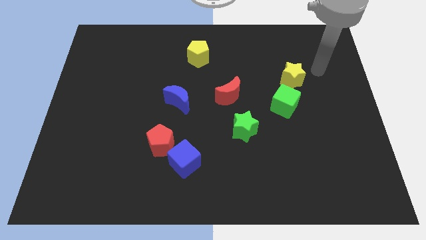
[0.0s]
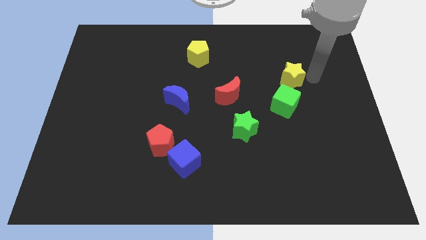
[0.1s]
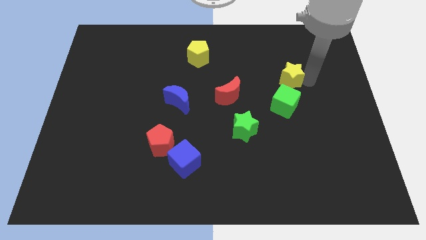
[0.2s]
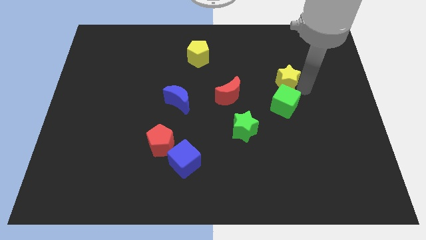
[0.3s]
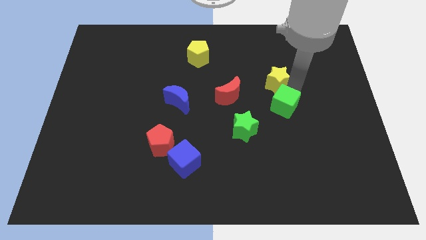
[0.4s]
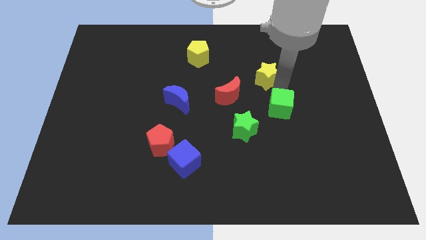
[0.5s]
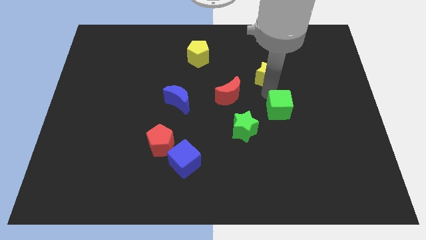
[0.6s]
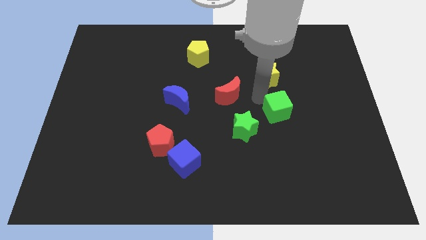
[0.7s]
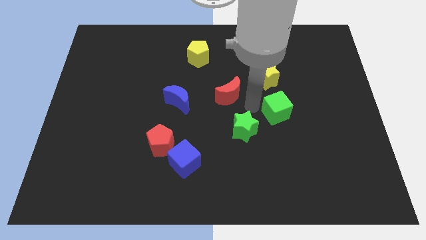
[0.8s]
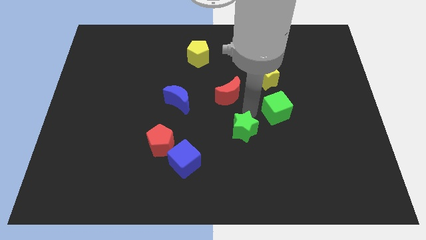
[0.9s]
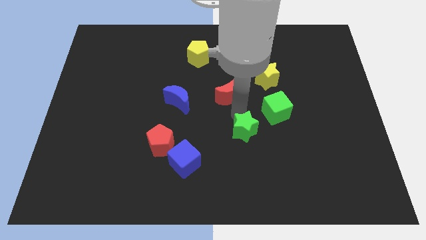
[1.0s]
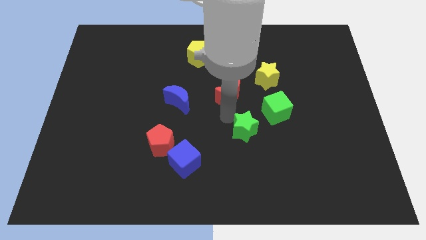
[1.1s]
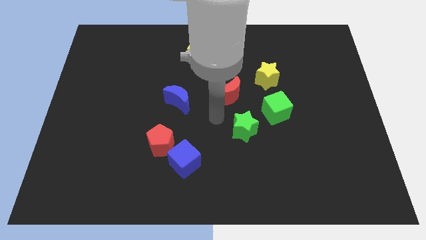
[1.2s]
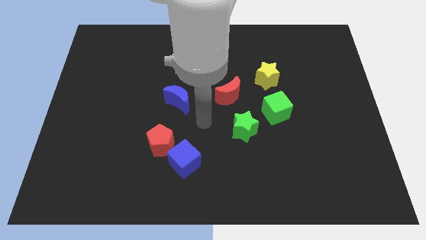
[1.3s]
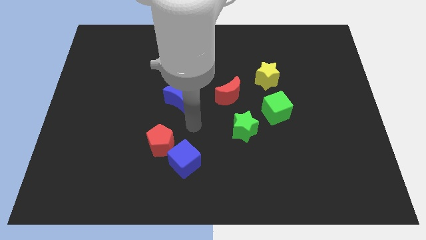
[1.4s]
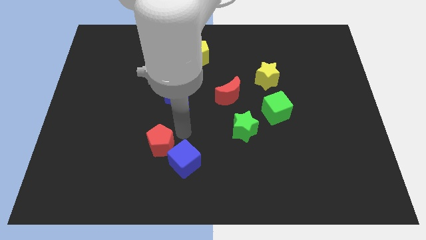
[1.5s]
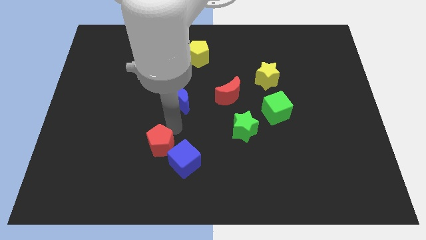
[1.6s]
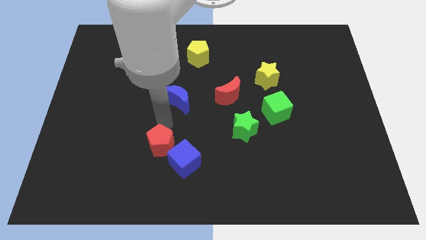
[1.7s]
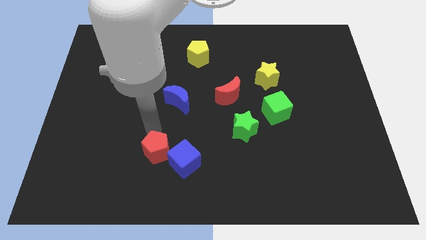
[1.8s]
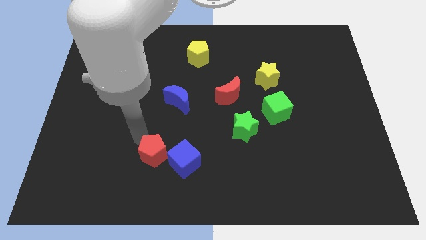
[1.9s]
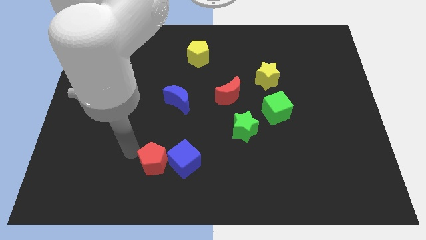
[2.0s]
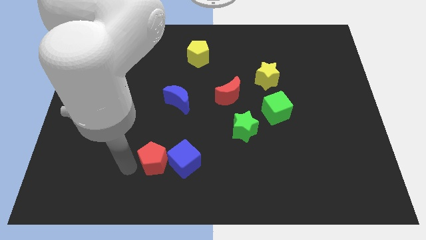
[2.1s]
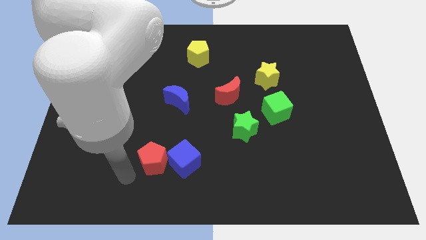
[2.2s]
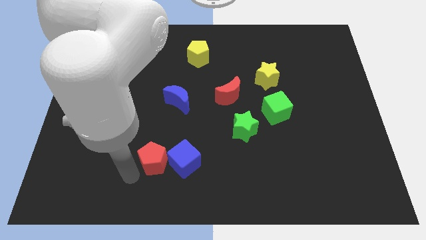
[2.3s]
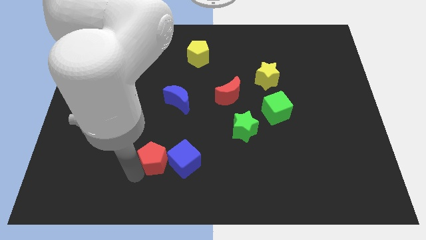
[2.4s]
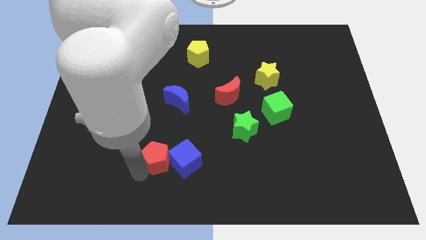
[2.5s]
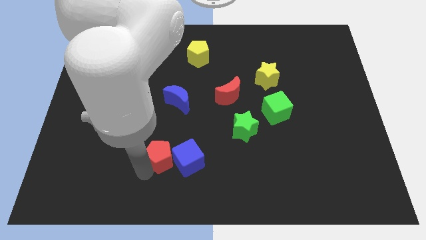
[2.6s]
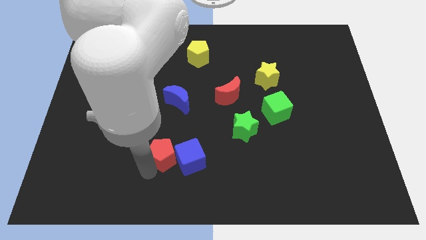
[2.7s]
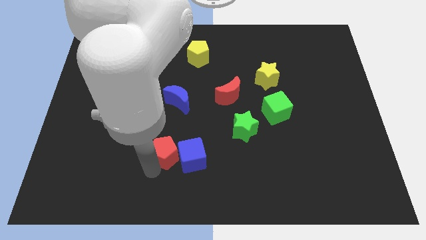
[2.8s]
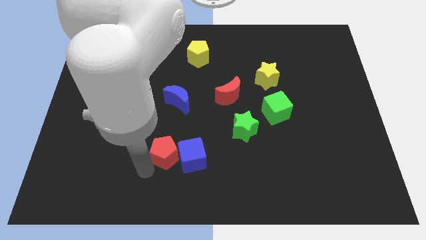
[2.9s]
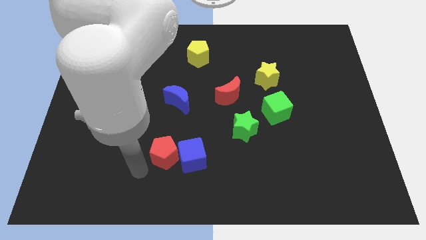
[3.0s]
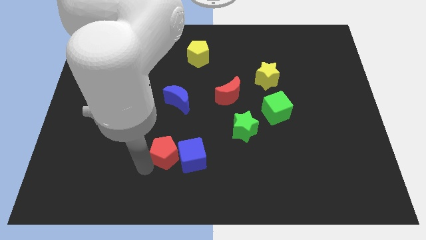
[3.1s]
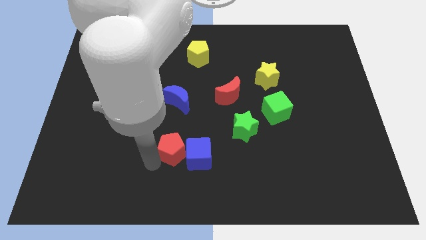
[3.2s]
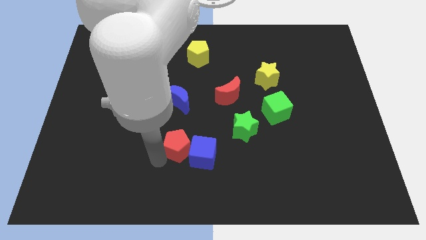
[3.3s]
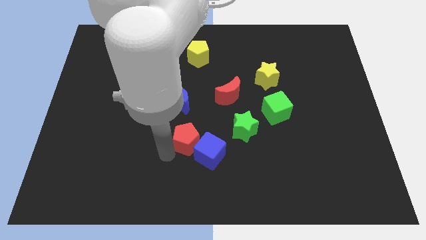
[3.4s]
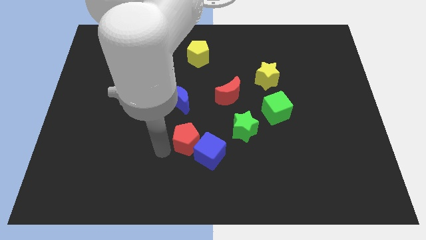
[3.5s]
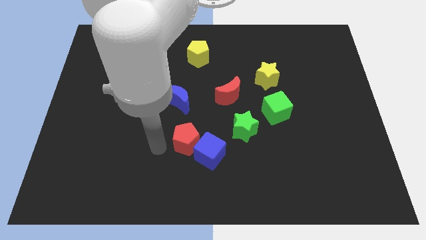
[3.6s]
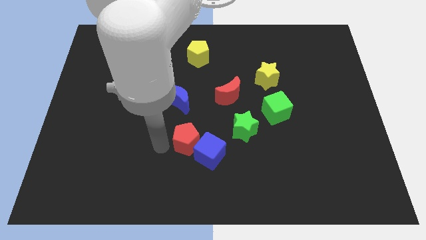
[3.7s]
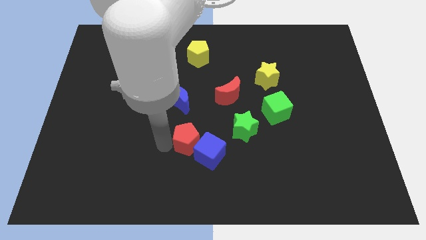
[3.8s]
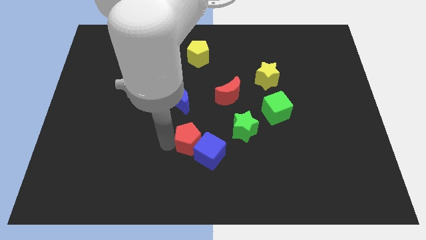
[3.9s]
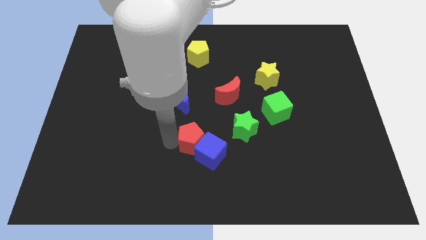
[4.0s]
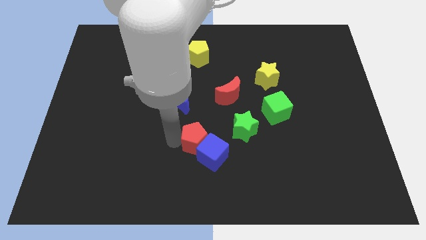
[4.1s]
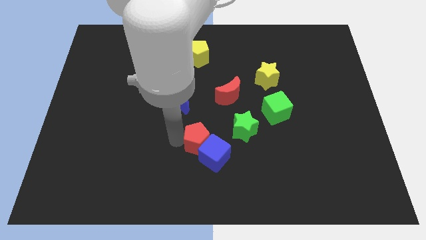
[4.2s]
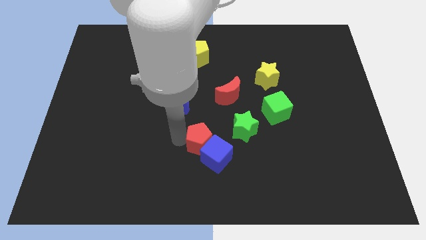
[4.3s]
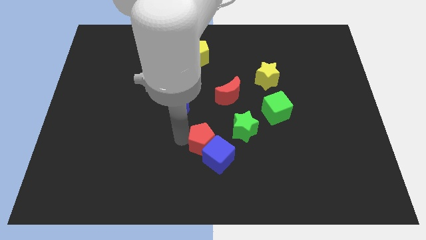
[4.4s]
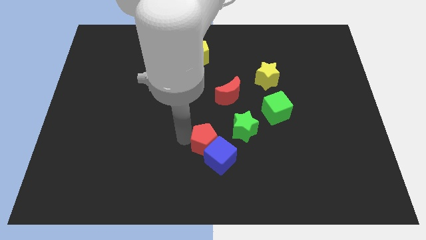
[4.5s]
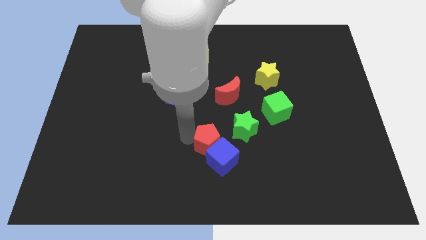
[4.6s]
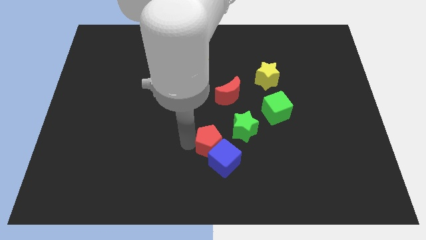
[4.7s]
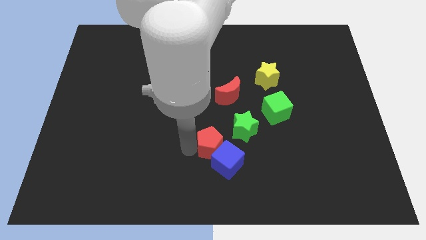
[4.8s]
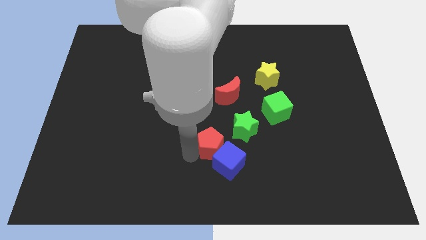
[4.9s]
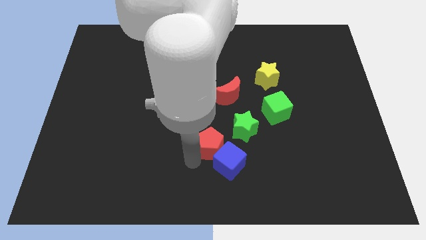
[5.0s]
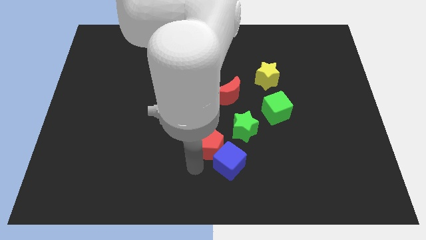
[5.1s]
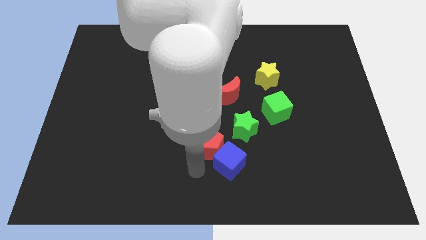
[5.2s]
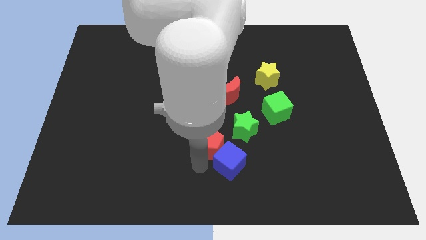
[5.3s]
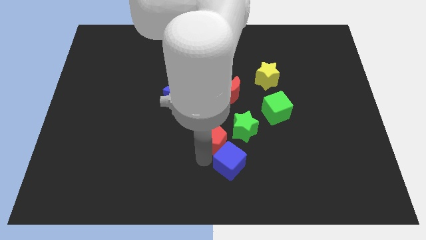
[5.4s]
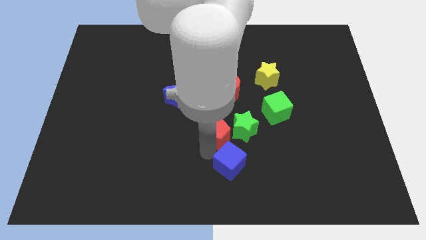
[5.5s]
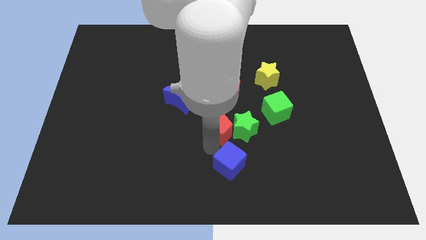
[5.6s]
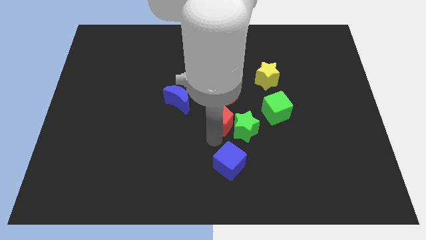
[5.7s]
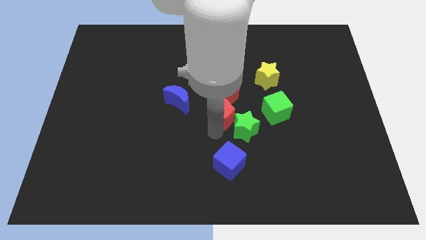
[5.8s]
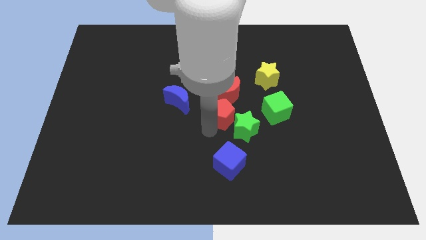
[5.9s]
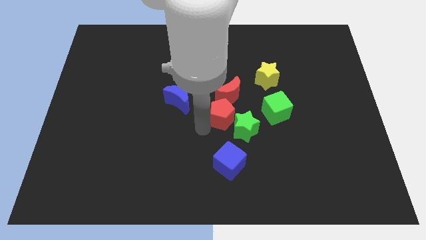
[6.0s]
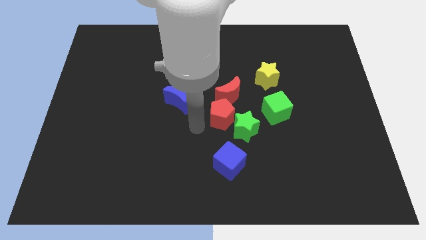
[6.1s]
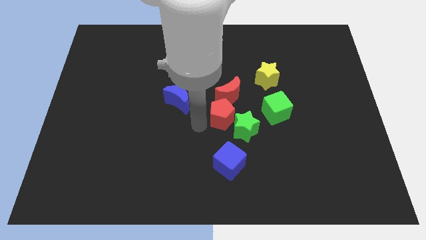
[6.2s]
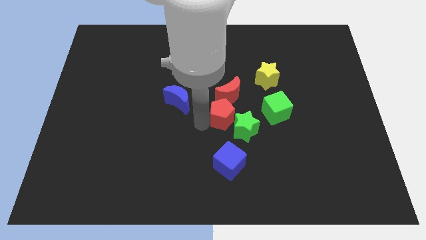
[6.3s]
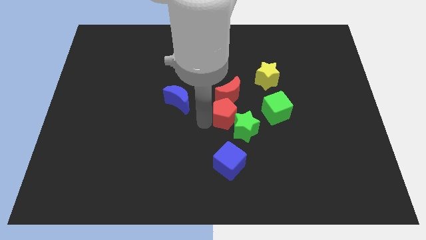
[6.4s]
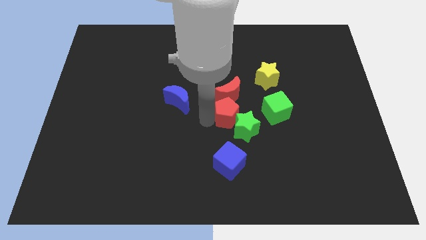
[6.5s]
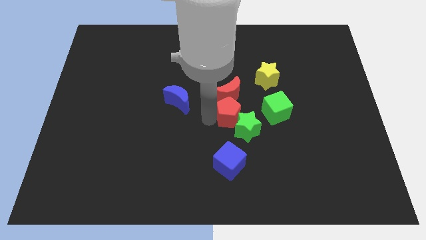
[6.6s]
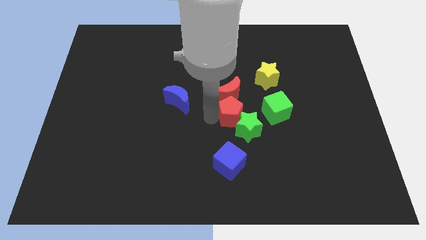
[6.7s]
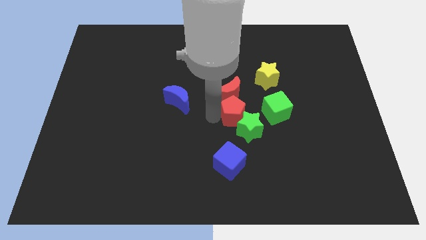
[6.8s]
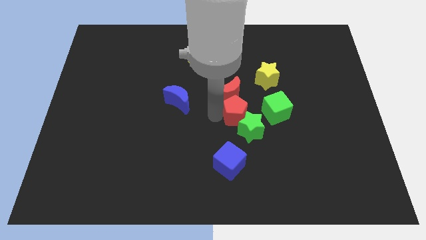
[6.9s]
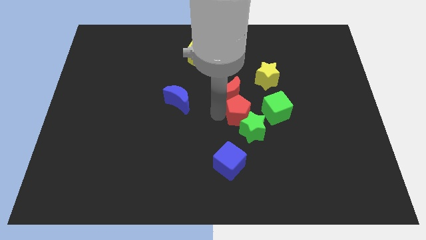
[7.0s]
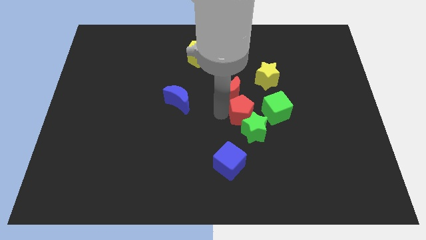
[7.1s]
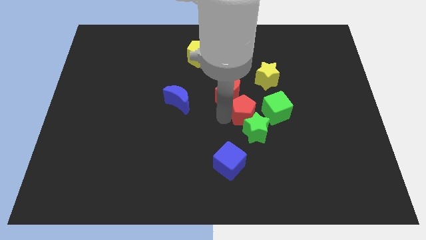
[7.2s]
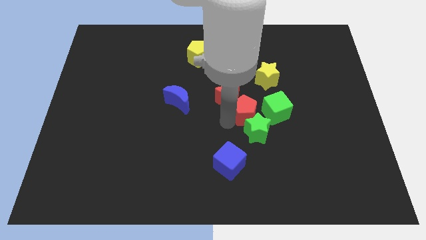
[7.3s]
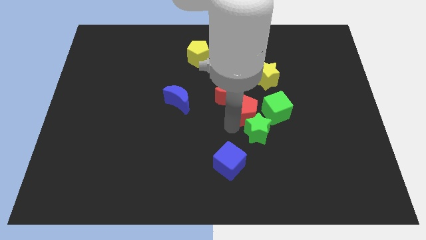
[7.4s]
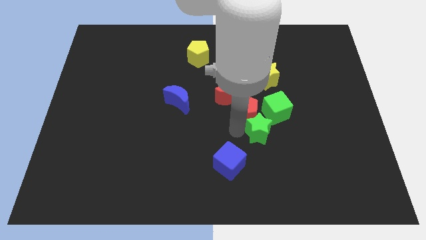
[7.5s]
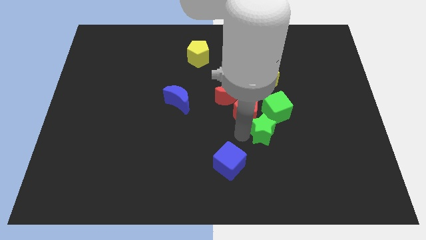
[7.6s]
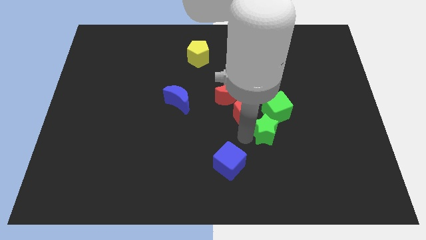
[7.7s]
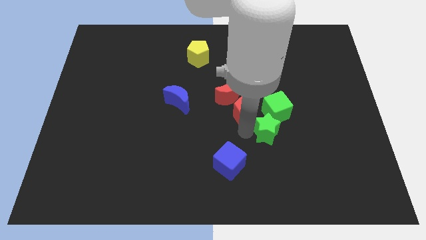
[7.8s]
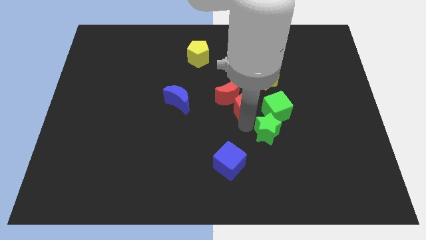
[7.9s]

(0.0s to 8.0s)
slide the red pentagon to the bottom left side of the yellow star
